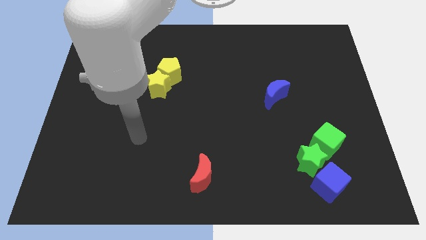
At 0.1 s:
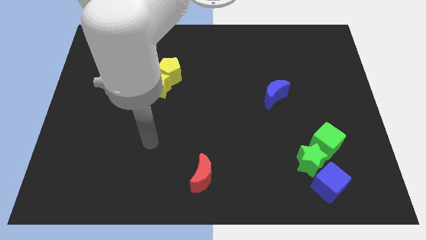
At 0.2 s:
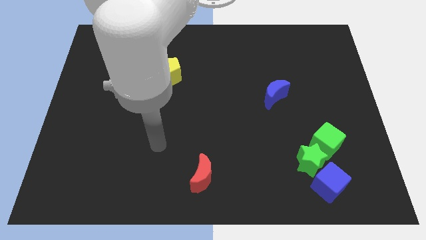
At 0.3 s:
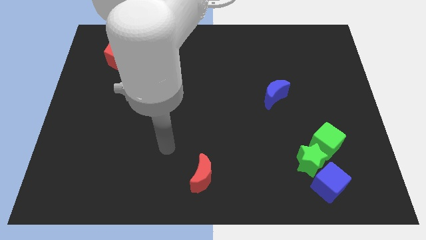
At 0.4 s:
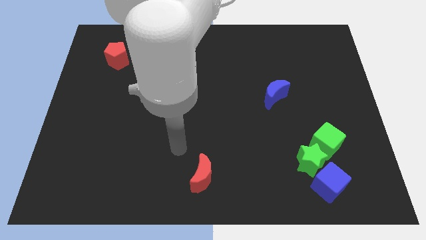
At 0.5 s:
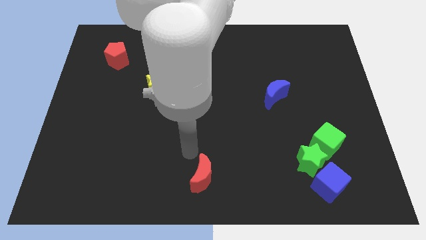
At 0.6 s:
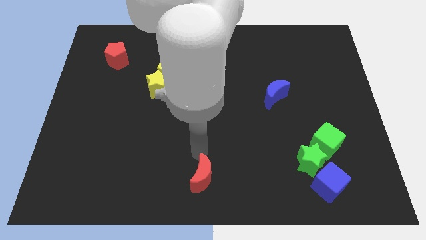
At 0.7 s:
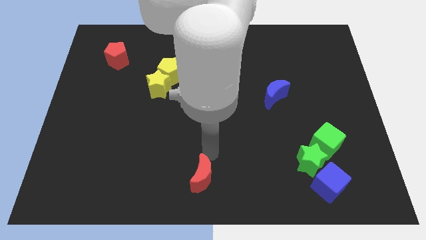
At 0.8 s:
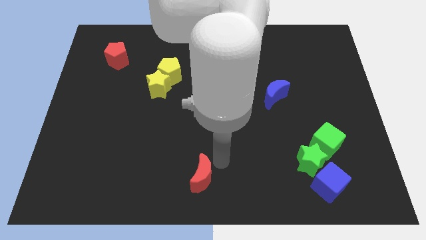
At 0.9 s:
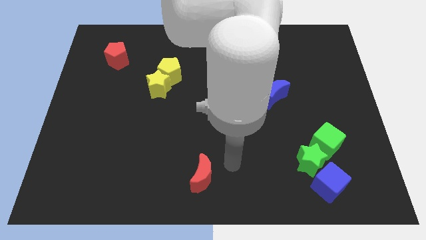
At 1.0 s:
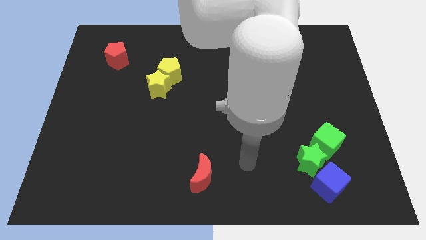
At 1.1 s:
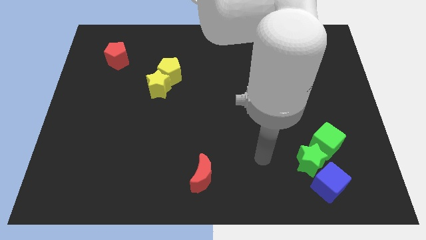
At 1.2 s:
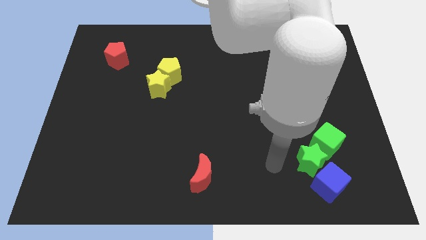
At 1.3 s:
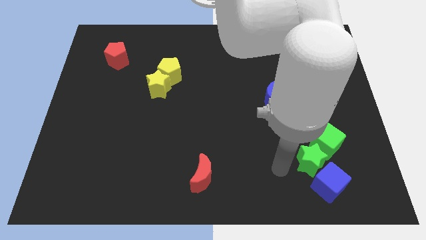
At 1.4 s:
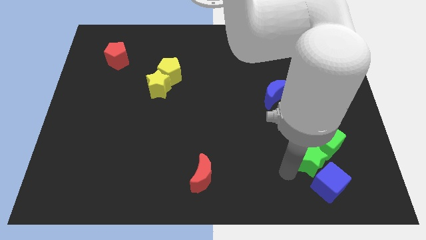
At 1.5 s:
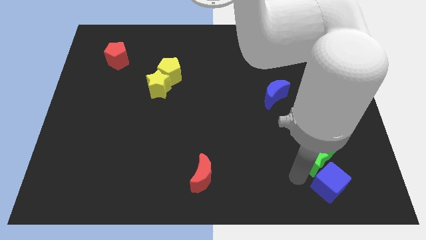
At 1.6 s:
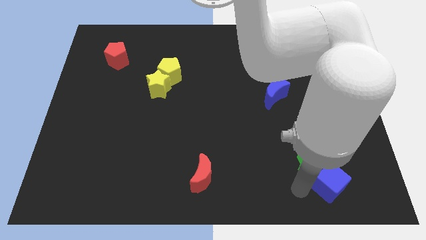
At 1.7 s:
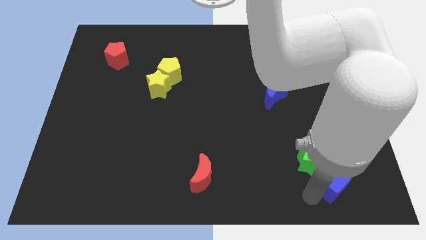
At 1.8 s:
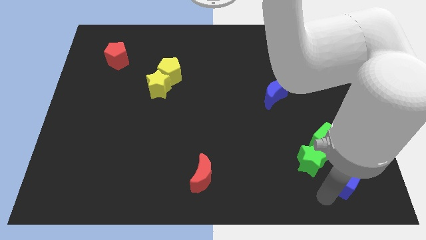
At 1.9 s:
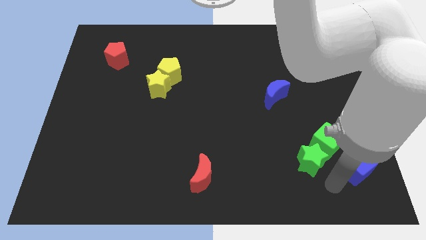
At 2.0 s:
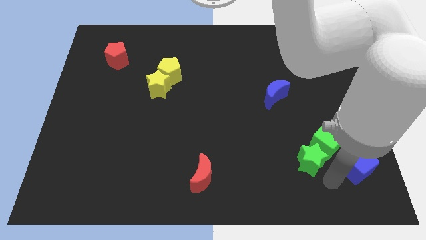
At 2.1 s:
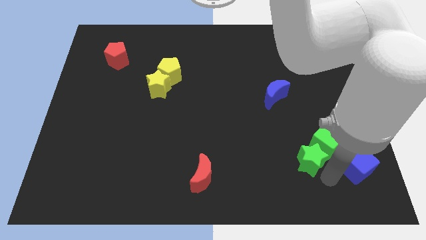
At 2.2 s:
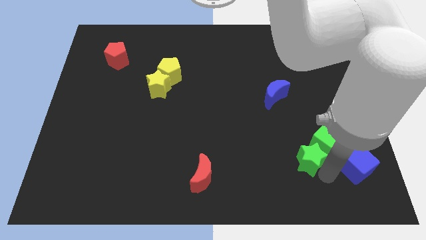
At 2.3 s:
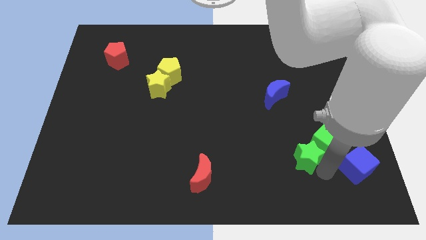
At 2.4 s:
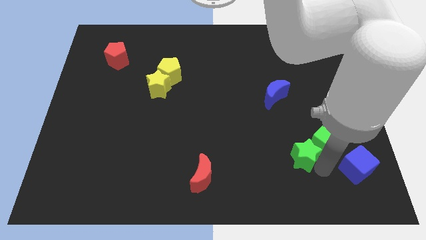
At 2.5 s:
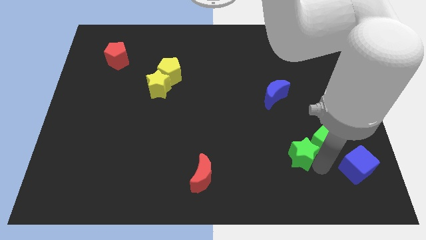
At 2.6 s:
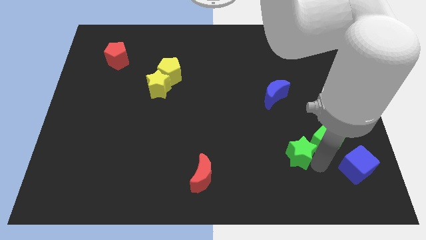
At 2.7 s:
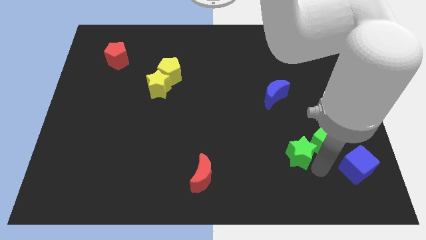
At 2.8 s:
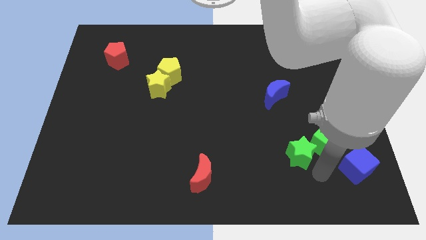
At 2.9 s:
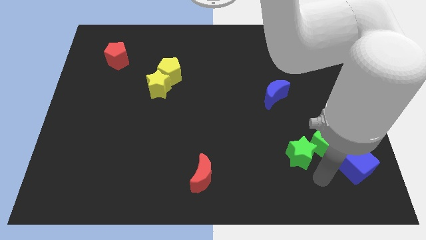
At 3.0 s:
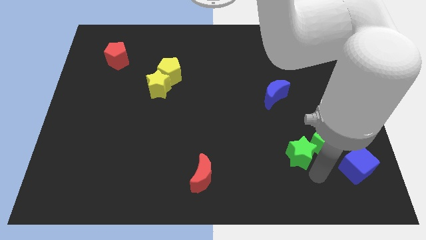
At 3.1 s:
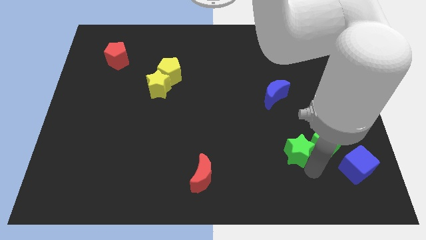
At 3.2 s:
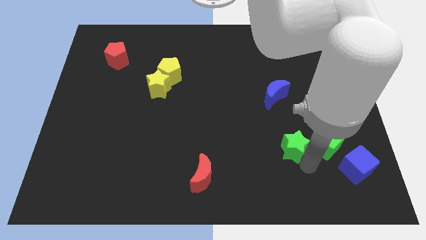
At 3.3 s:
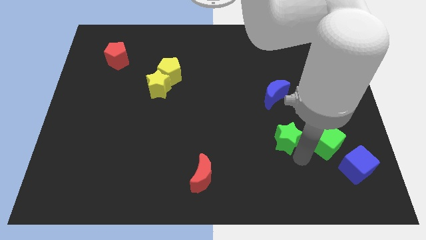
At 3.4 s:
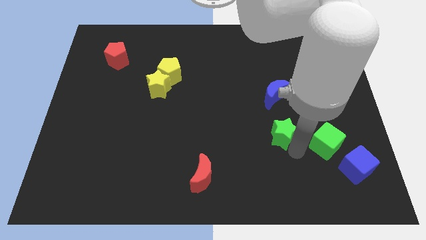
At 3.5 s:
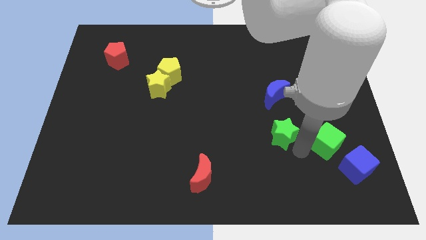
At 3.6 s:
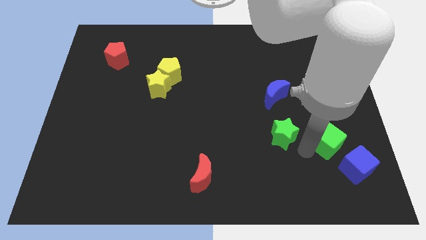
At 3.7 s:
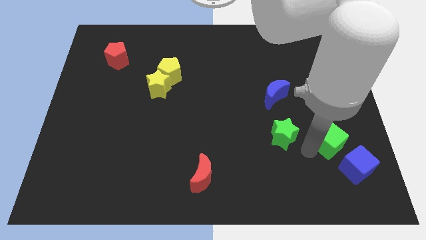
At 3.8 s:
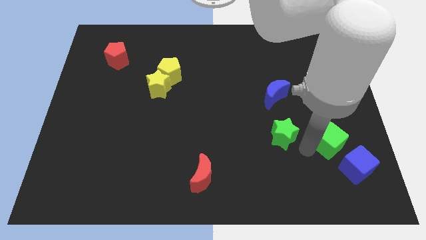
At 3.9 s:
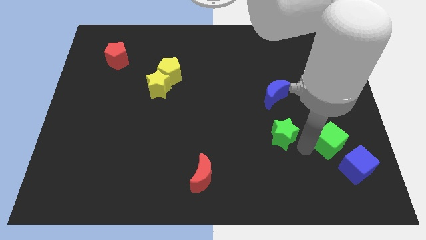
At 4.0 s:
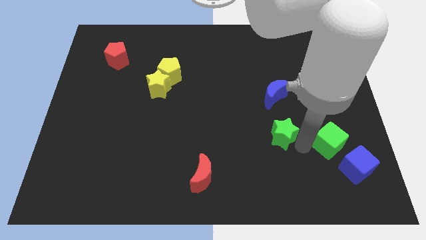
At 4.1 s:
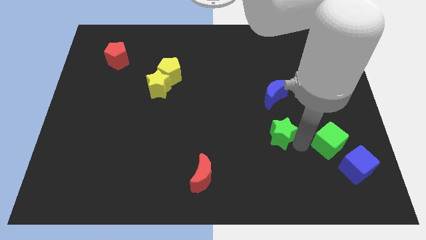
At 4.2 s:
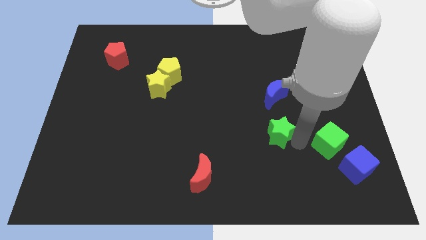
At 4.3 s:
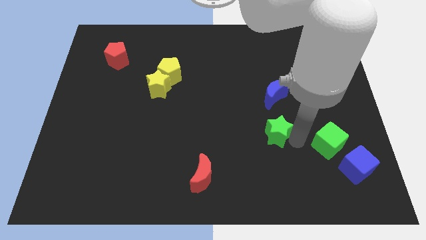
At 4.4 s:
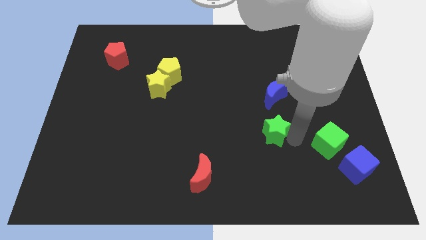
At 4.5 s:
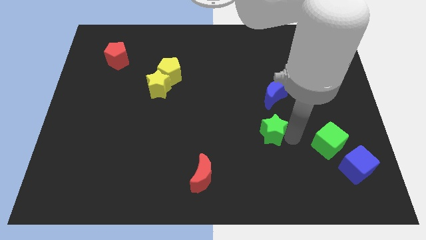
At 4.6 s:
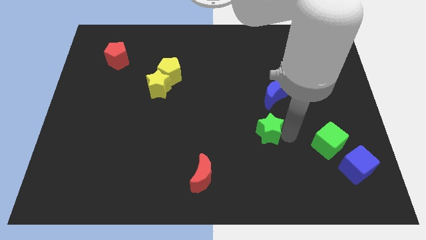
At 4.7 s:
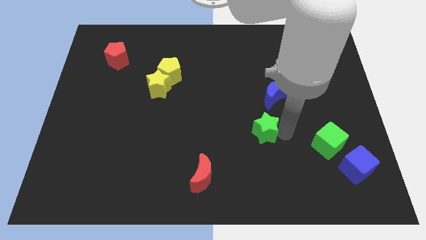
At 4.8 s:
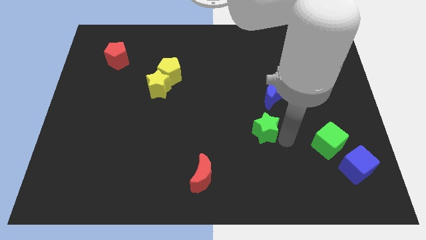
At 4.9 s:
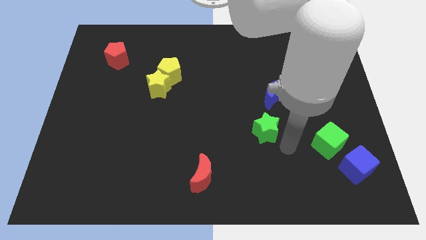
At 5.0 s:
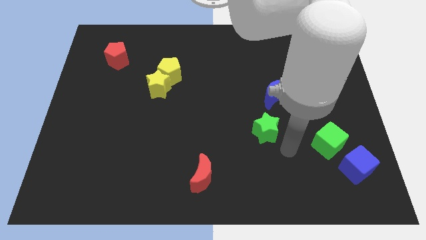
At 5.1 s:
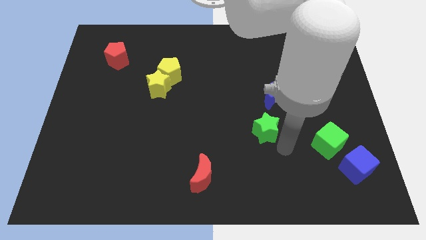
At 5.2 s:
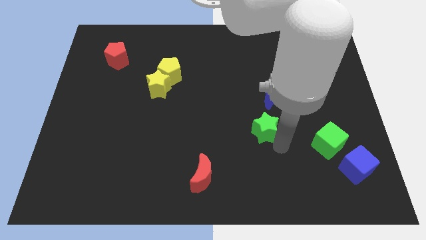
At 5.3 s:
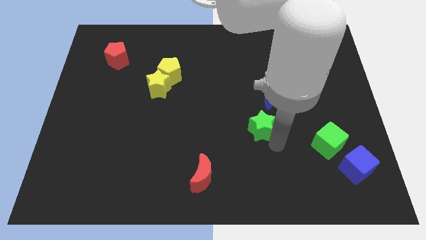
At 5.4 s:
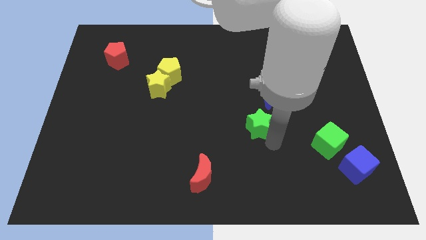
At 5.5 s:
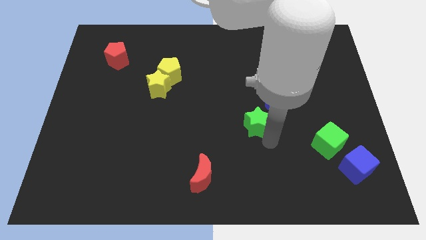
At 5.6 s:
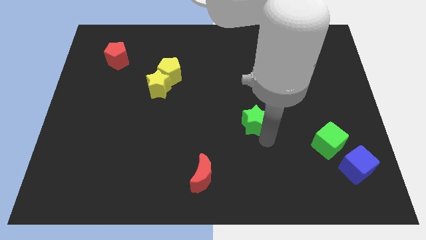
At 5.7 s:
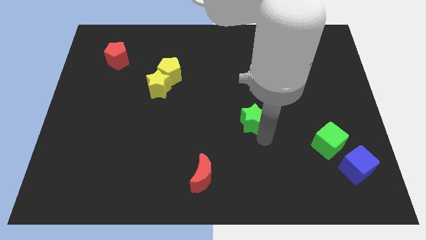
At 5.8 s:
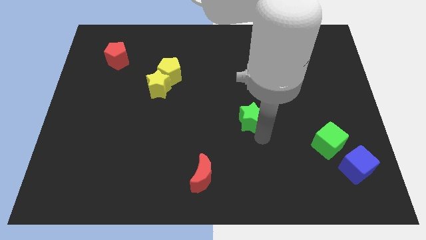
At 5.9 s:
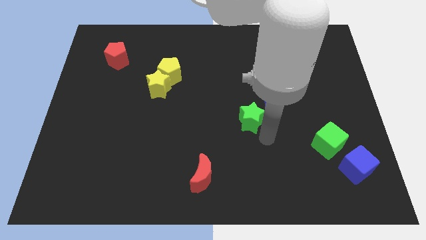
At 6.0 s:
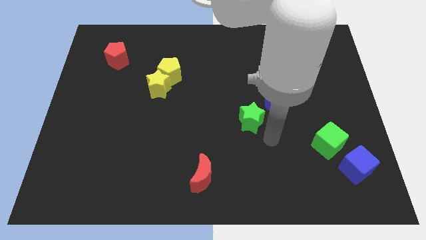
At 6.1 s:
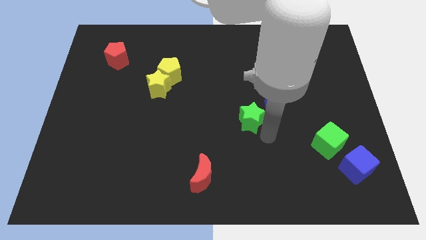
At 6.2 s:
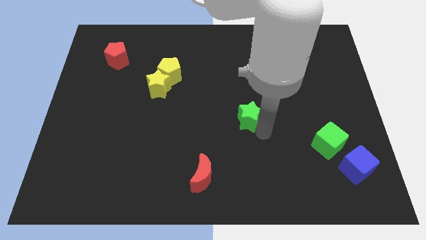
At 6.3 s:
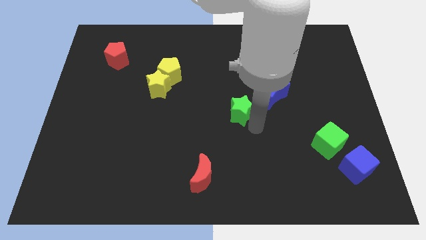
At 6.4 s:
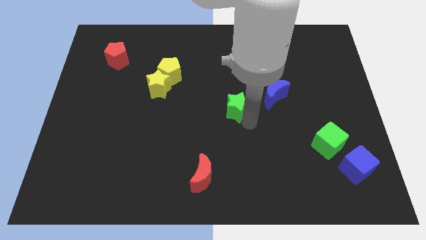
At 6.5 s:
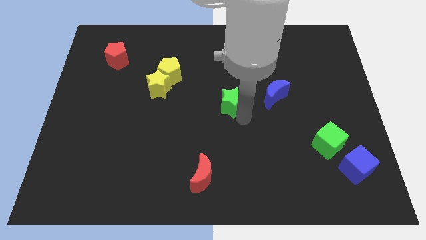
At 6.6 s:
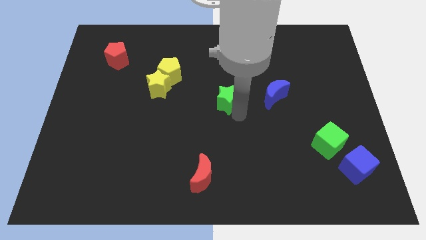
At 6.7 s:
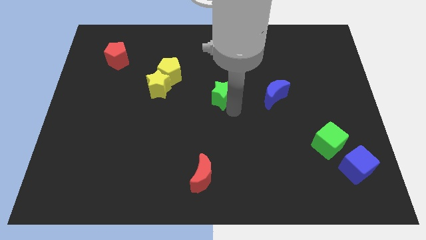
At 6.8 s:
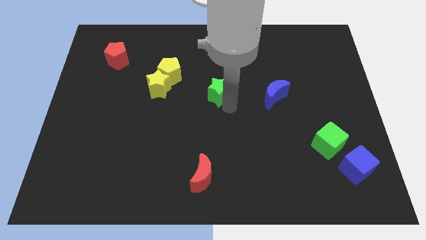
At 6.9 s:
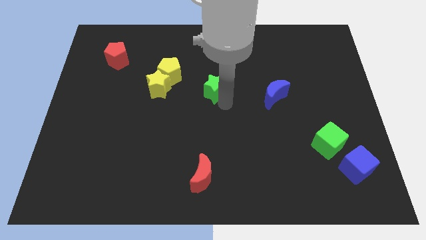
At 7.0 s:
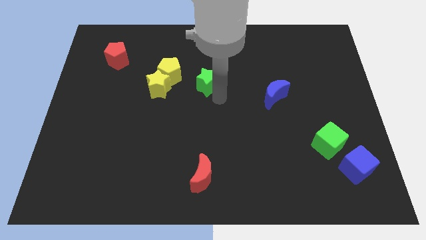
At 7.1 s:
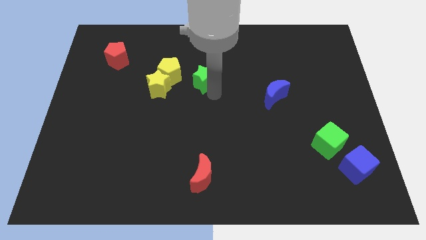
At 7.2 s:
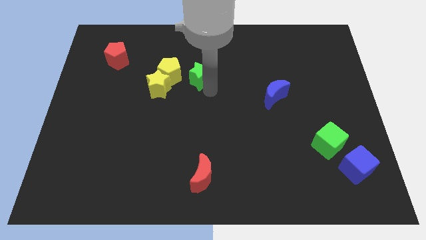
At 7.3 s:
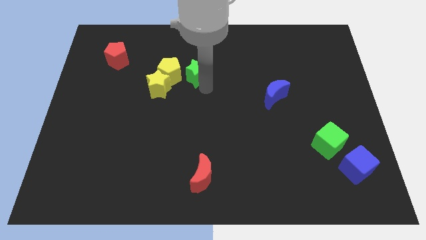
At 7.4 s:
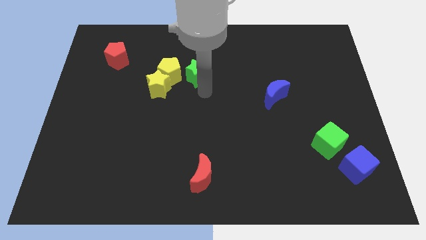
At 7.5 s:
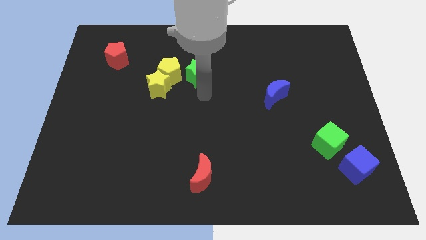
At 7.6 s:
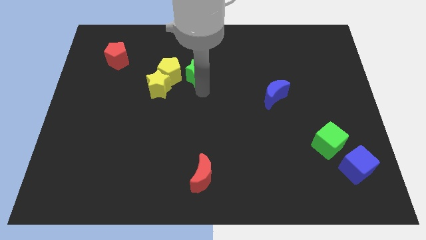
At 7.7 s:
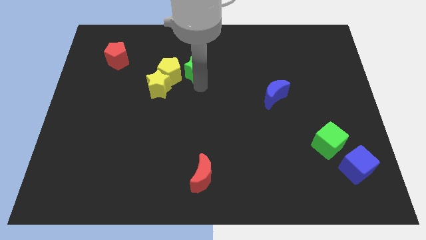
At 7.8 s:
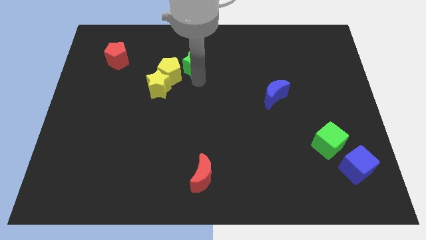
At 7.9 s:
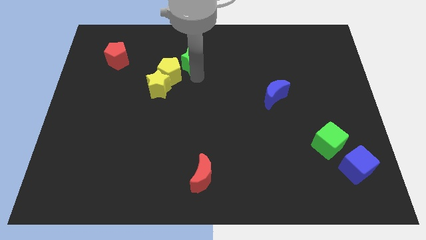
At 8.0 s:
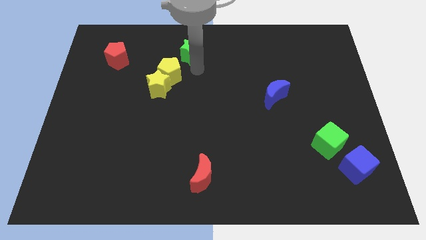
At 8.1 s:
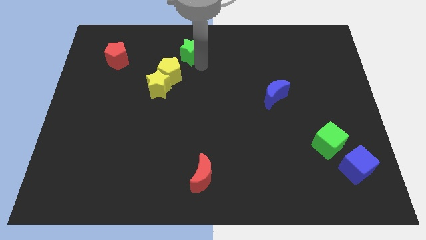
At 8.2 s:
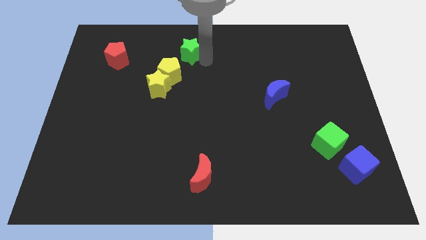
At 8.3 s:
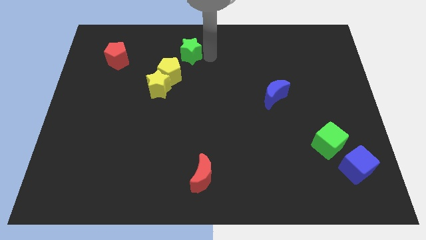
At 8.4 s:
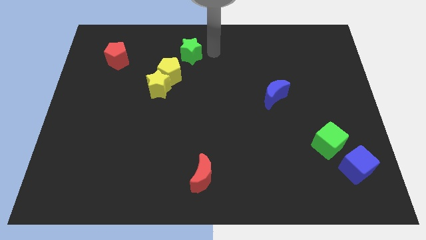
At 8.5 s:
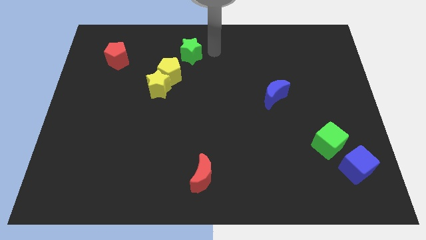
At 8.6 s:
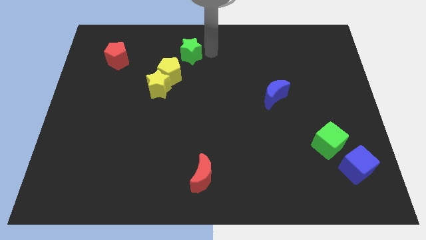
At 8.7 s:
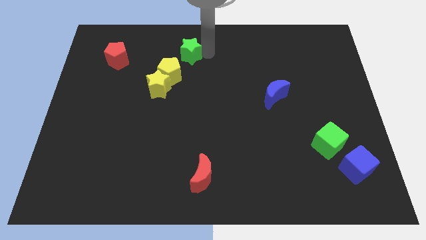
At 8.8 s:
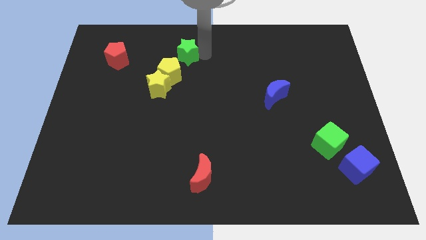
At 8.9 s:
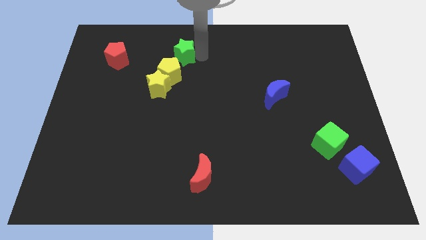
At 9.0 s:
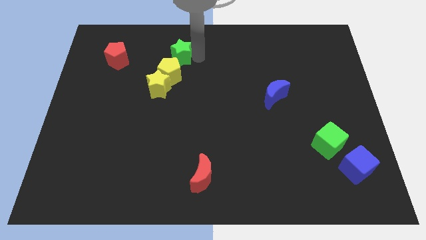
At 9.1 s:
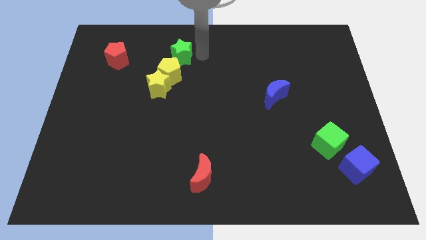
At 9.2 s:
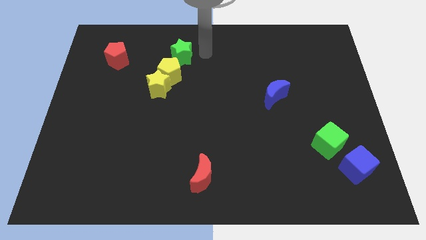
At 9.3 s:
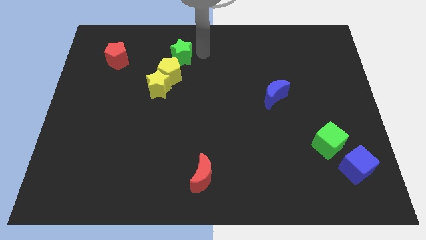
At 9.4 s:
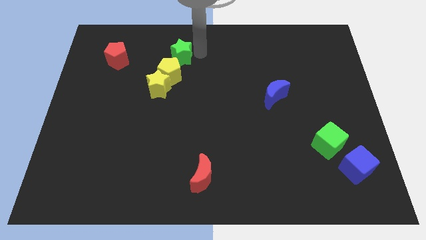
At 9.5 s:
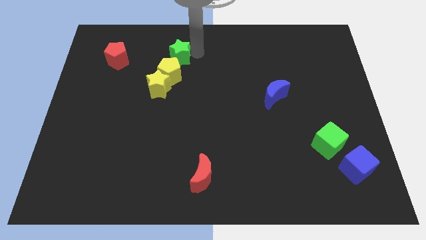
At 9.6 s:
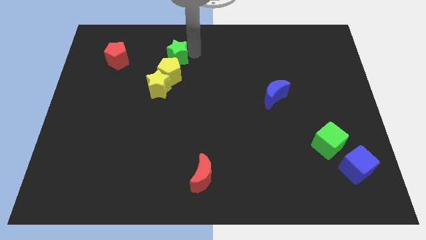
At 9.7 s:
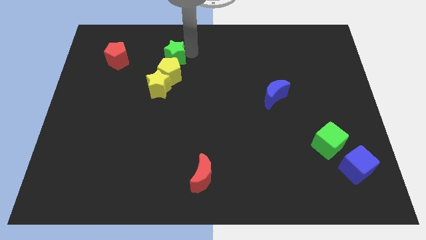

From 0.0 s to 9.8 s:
put the green star to the top left side of the yellow pentagon
